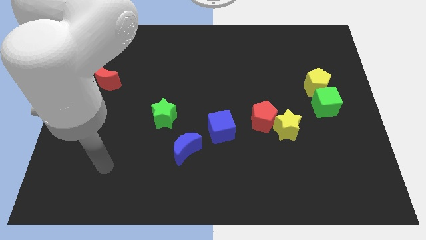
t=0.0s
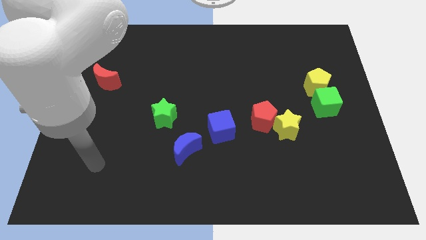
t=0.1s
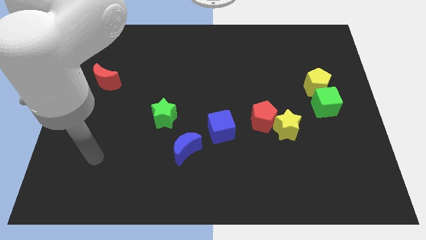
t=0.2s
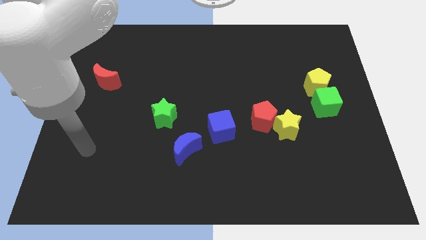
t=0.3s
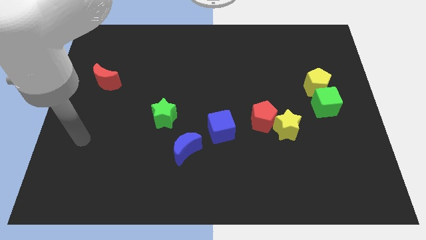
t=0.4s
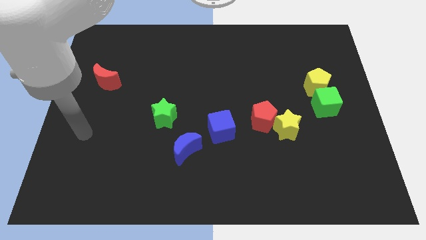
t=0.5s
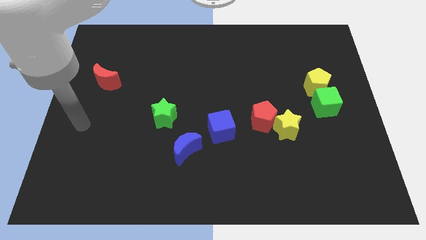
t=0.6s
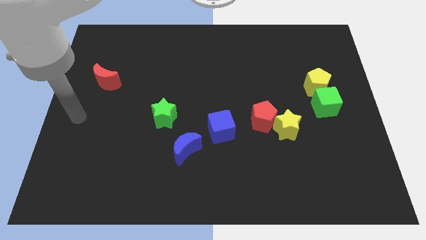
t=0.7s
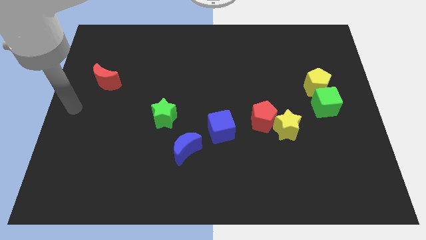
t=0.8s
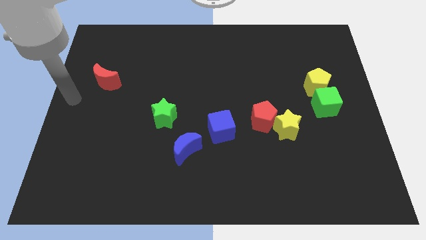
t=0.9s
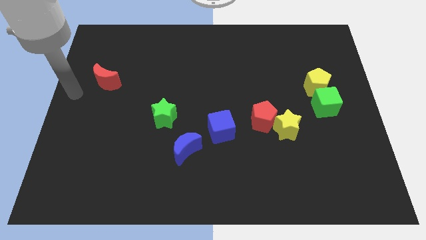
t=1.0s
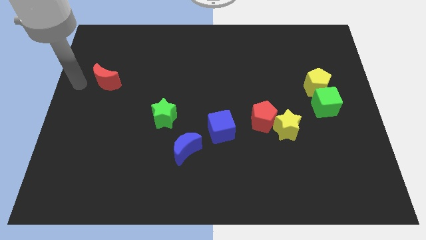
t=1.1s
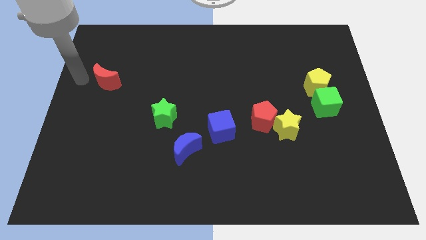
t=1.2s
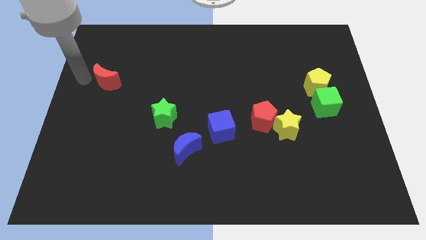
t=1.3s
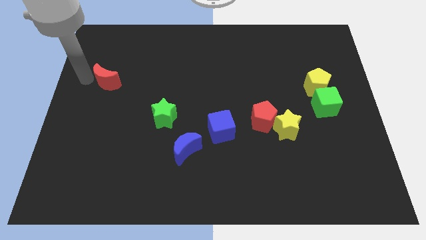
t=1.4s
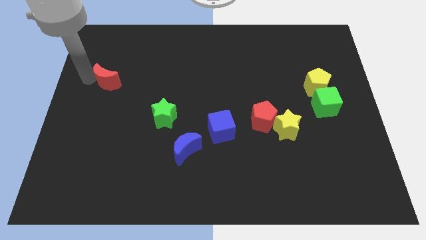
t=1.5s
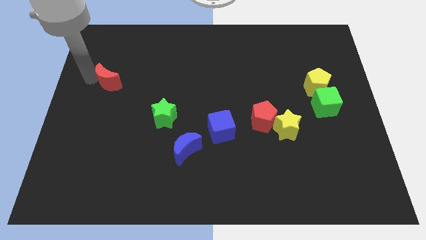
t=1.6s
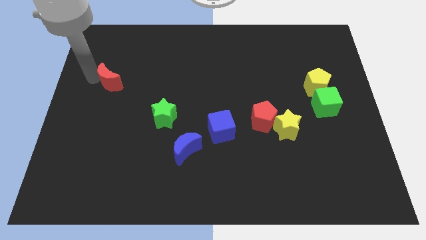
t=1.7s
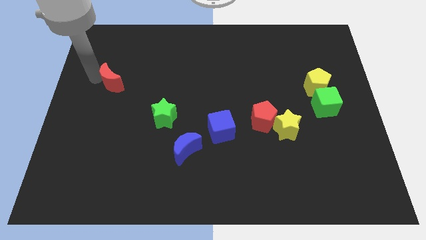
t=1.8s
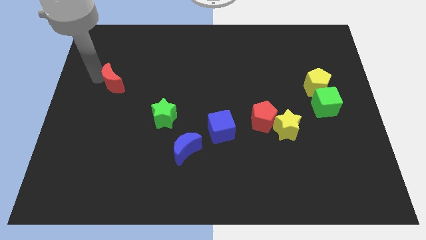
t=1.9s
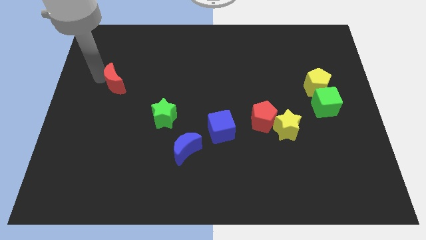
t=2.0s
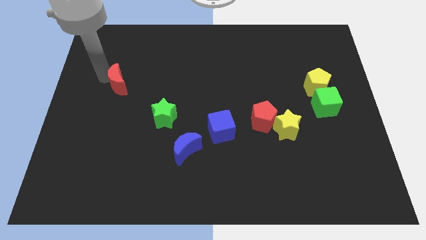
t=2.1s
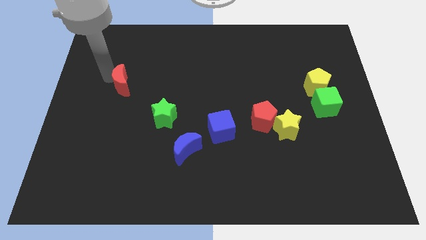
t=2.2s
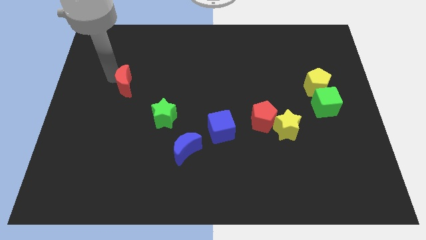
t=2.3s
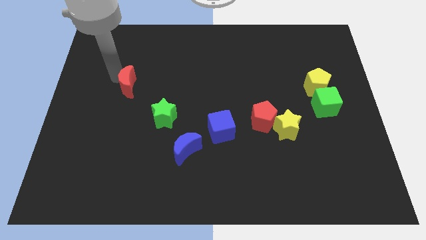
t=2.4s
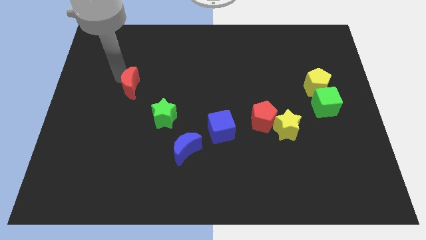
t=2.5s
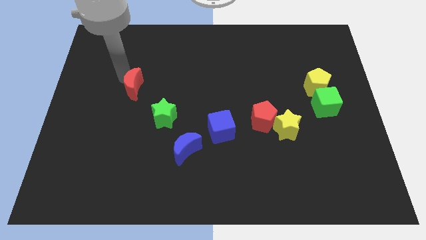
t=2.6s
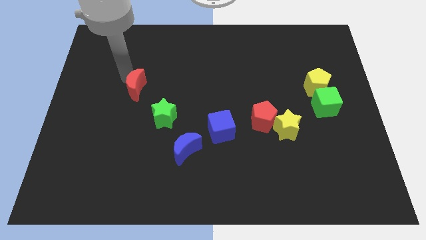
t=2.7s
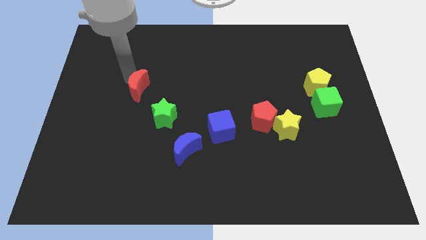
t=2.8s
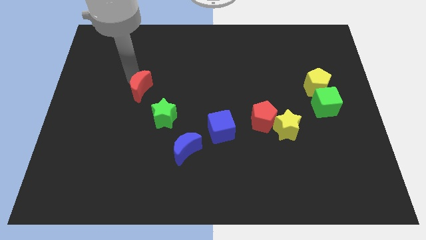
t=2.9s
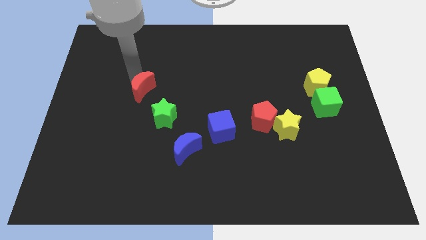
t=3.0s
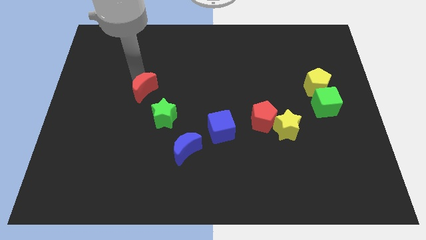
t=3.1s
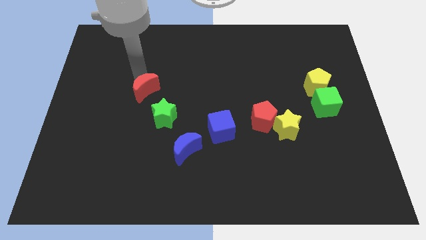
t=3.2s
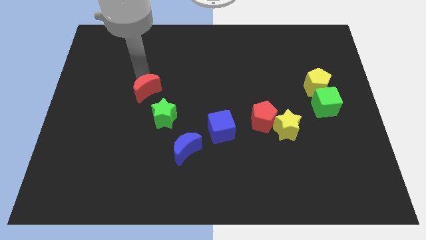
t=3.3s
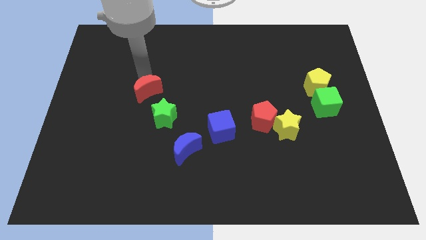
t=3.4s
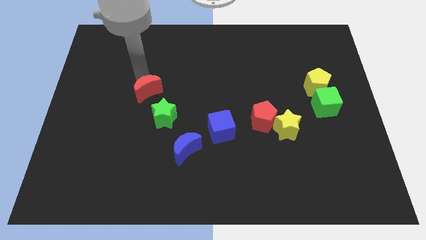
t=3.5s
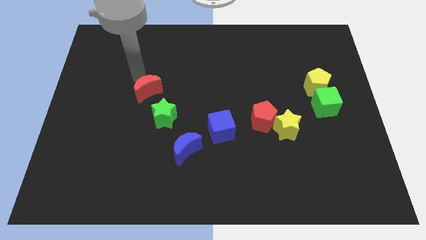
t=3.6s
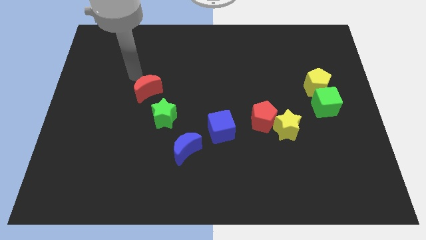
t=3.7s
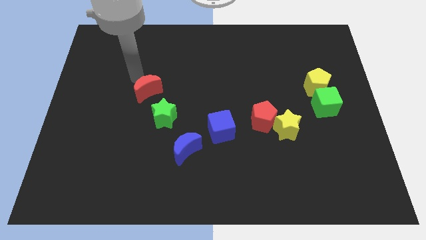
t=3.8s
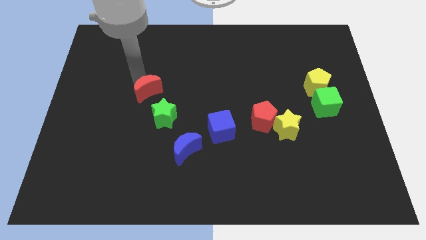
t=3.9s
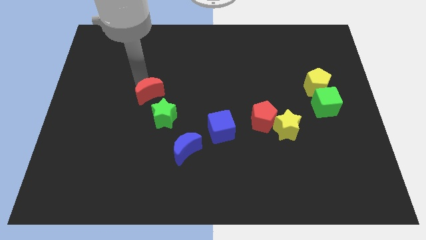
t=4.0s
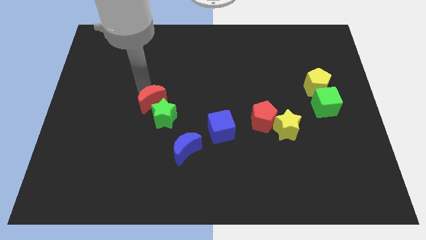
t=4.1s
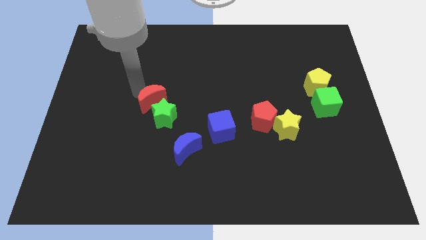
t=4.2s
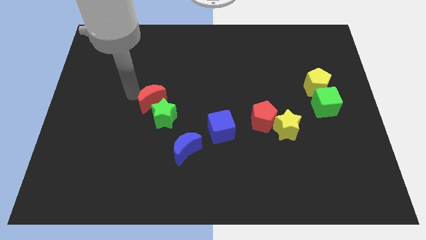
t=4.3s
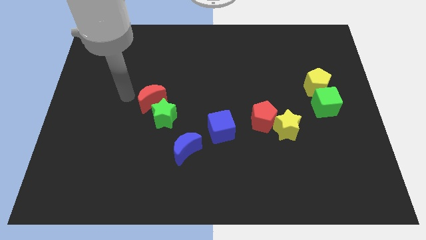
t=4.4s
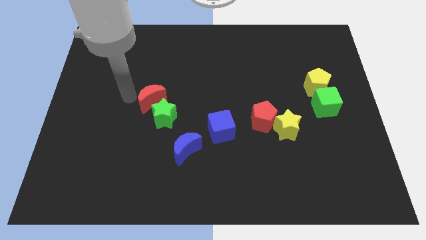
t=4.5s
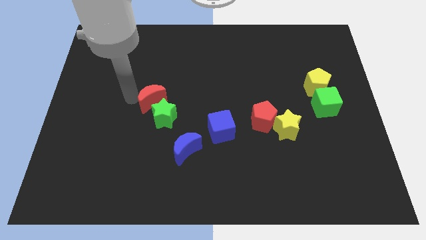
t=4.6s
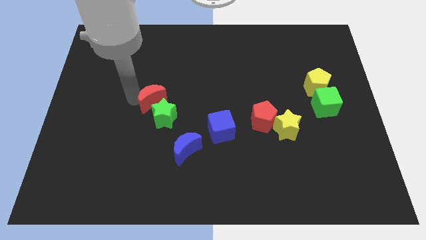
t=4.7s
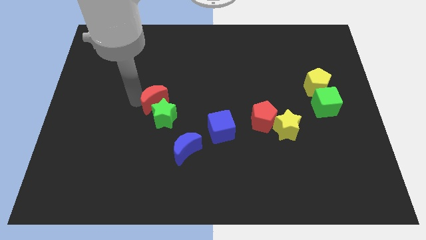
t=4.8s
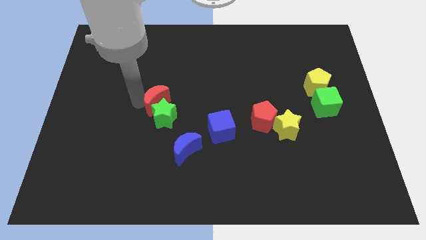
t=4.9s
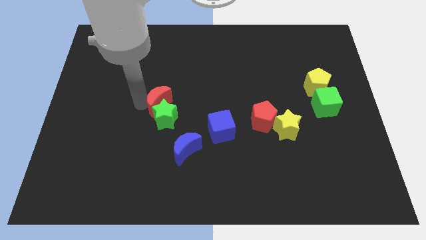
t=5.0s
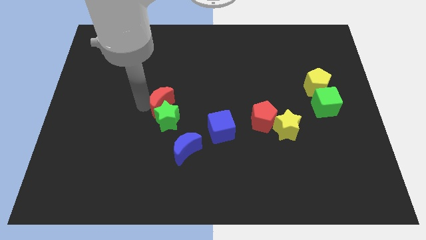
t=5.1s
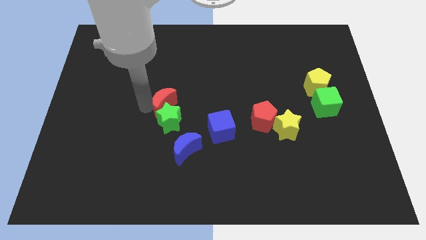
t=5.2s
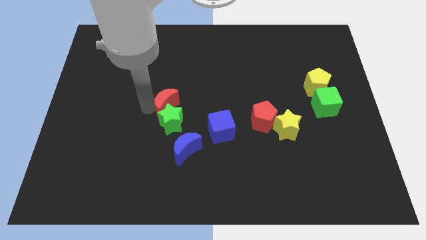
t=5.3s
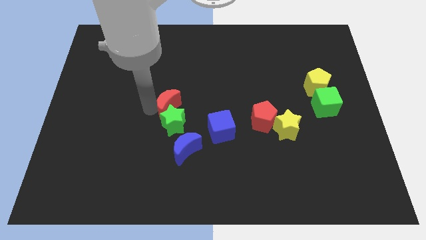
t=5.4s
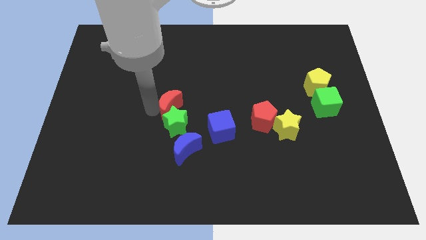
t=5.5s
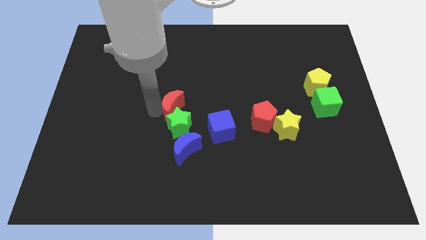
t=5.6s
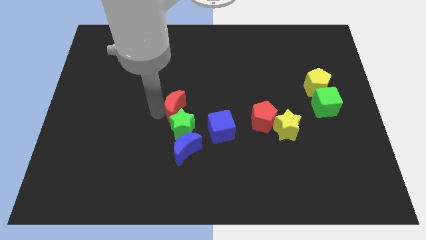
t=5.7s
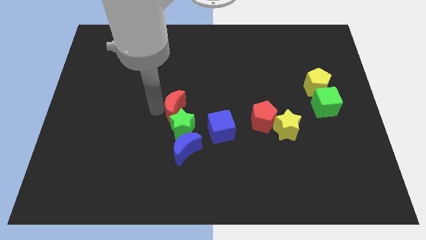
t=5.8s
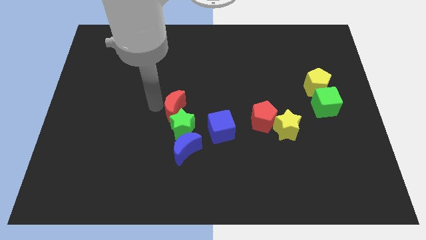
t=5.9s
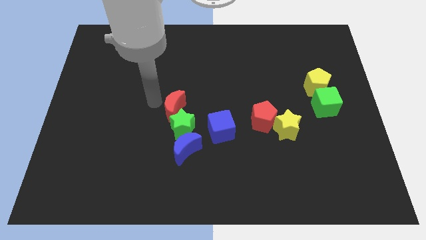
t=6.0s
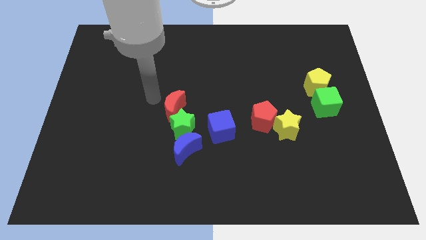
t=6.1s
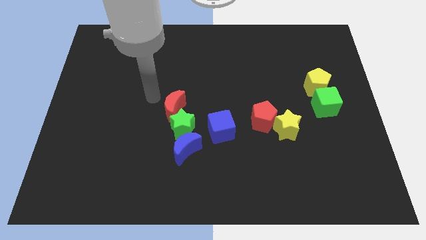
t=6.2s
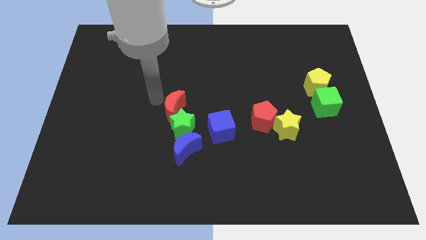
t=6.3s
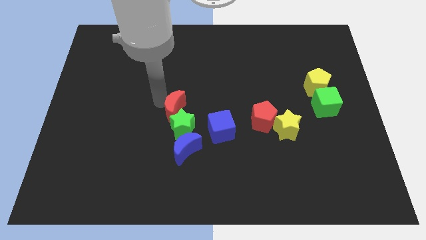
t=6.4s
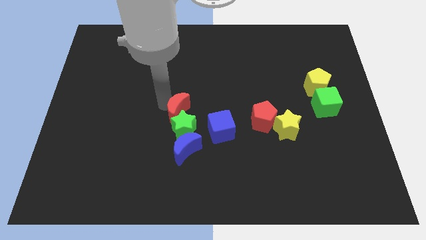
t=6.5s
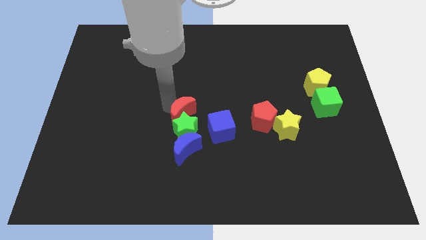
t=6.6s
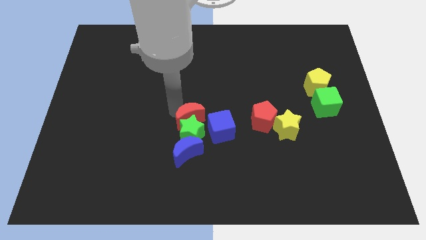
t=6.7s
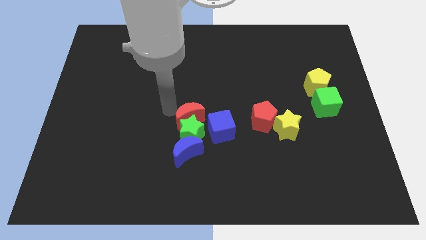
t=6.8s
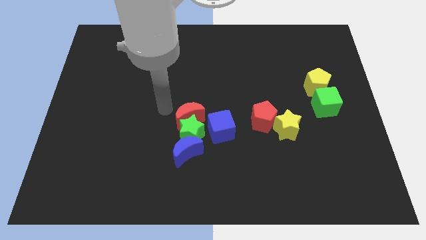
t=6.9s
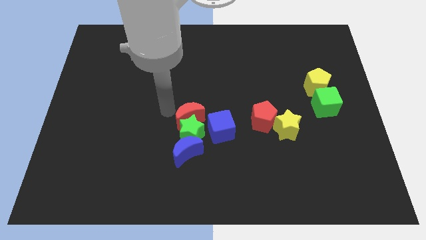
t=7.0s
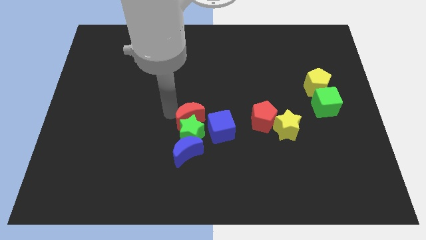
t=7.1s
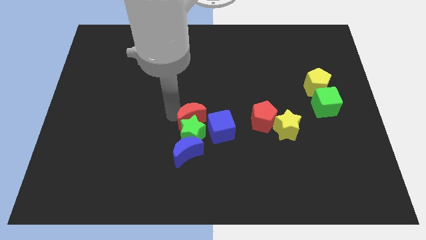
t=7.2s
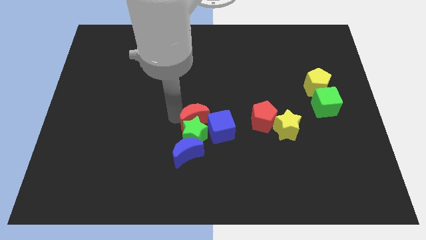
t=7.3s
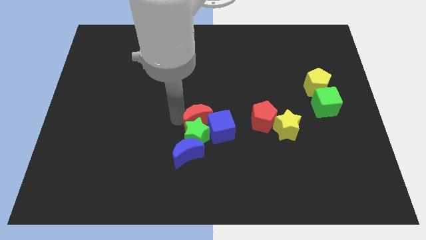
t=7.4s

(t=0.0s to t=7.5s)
slide the red moon to the blue cube

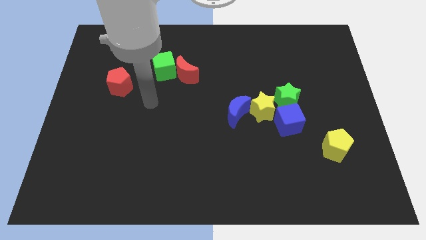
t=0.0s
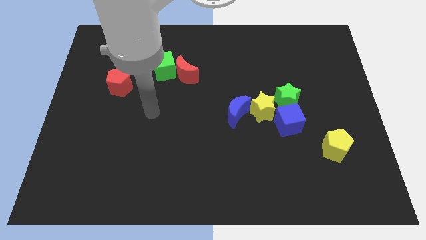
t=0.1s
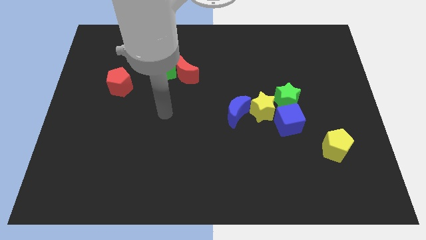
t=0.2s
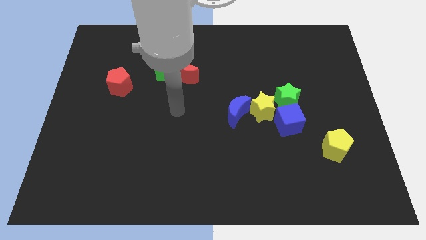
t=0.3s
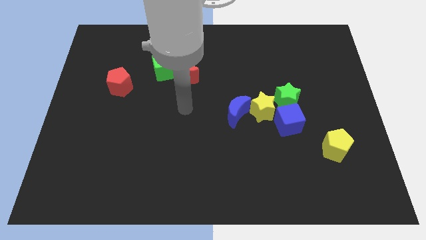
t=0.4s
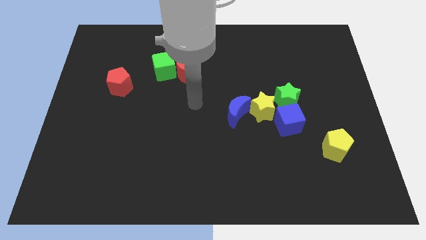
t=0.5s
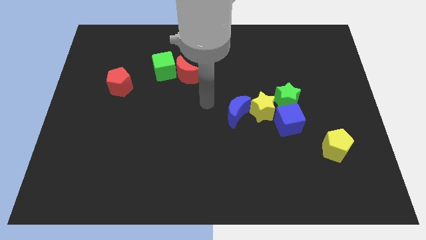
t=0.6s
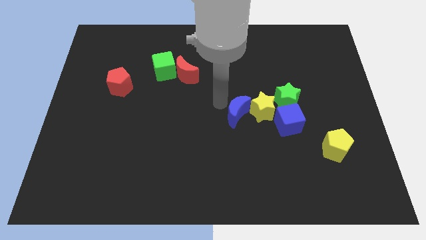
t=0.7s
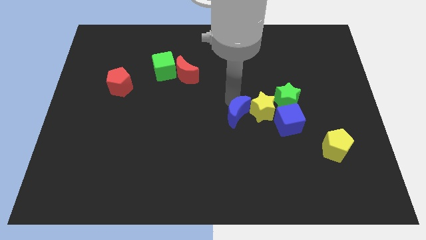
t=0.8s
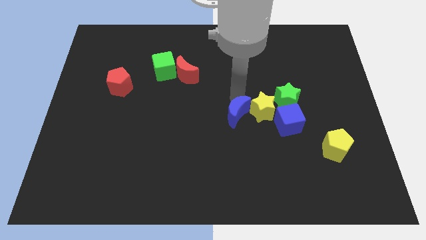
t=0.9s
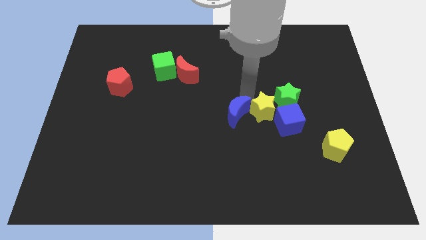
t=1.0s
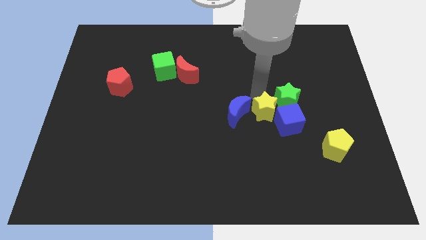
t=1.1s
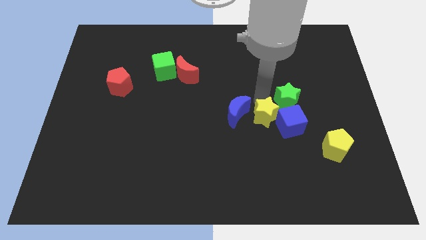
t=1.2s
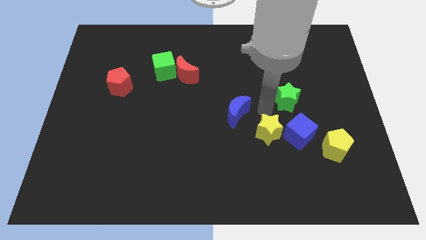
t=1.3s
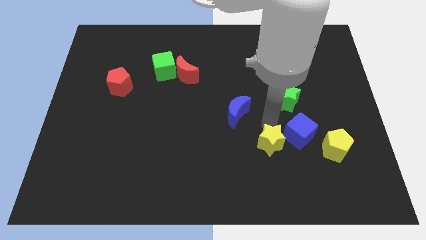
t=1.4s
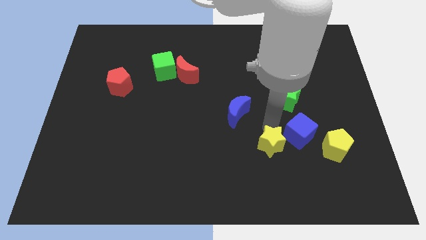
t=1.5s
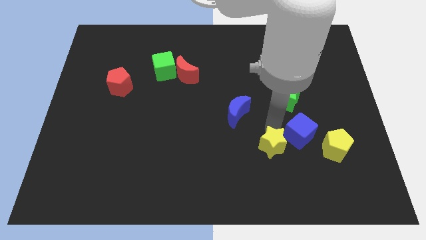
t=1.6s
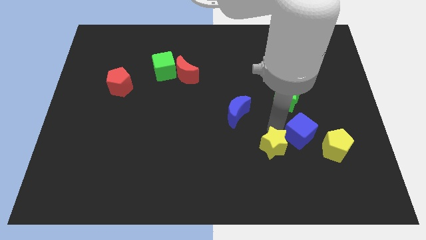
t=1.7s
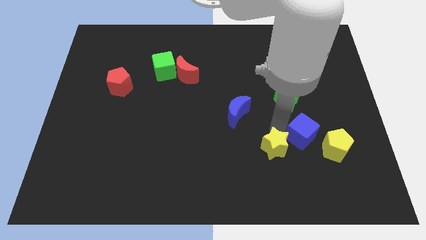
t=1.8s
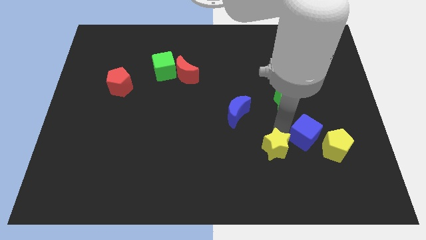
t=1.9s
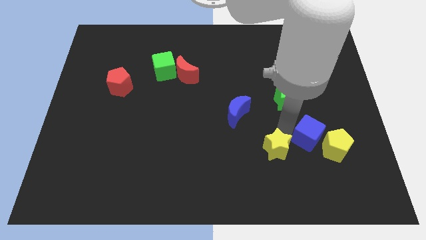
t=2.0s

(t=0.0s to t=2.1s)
push the blue cube towards the yellow pentagon
